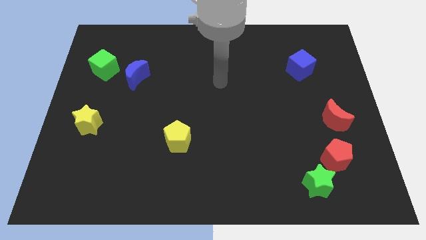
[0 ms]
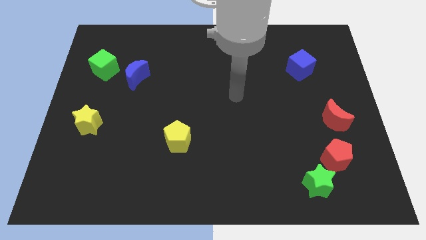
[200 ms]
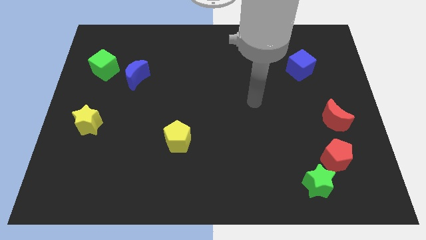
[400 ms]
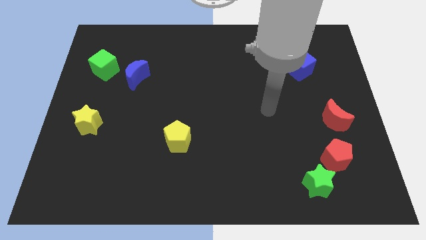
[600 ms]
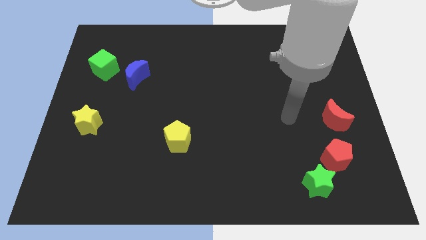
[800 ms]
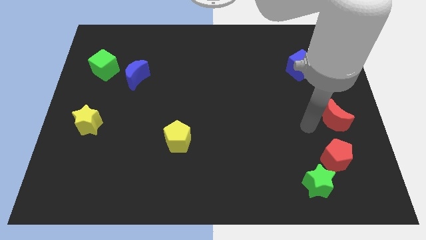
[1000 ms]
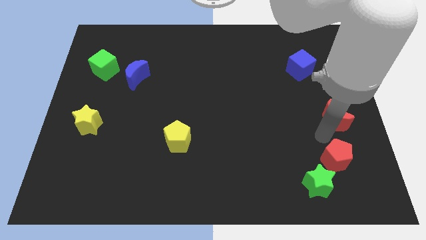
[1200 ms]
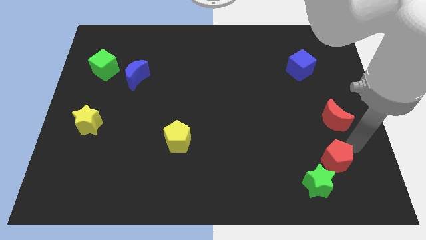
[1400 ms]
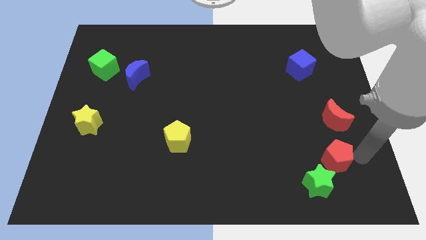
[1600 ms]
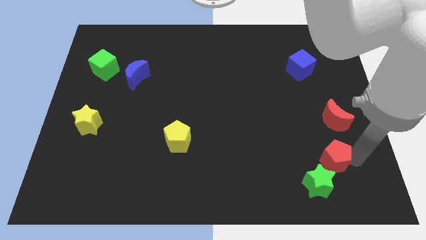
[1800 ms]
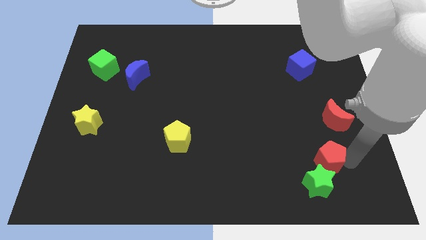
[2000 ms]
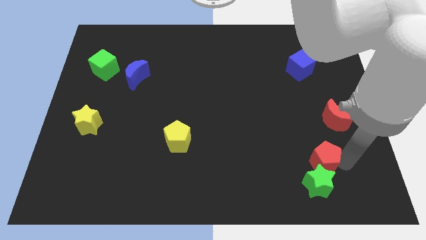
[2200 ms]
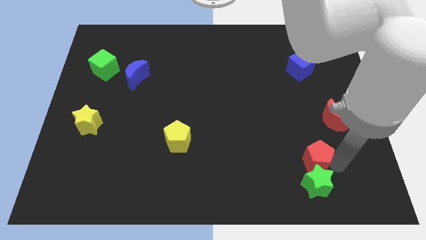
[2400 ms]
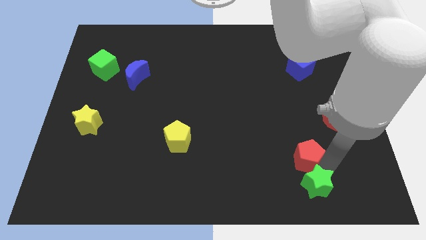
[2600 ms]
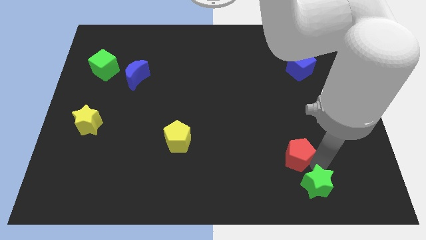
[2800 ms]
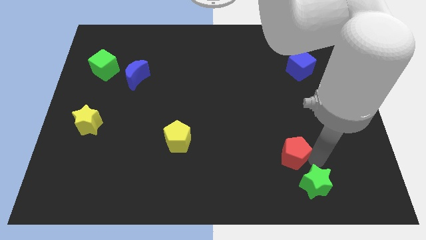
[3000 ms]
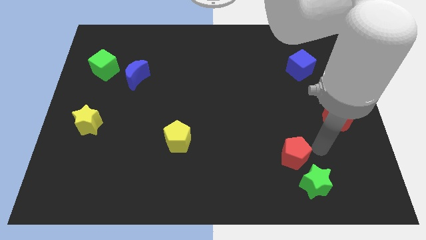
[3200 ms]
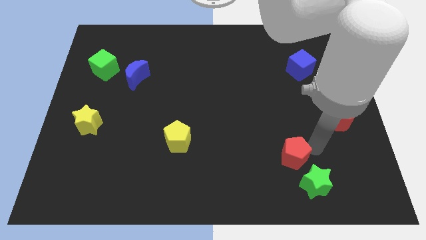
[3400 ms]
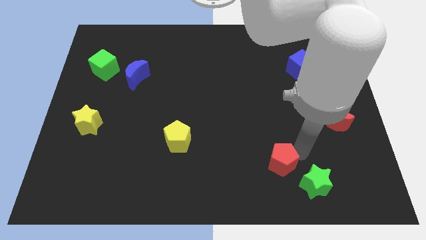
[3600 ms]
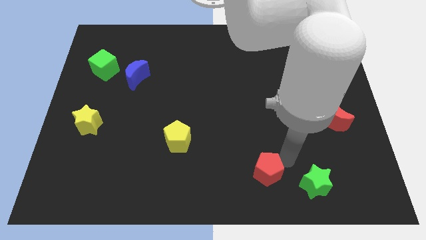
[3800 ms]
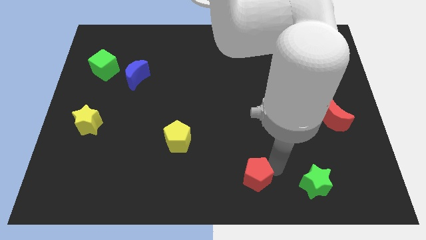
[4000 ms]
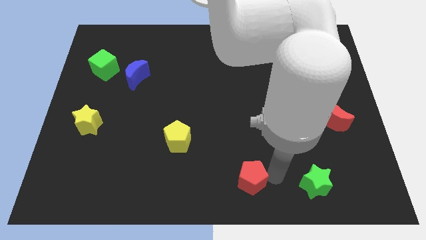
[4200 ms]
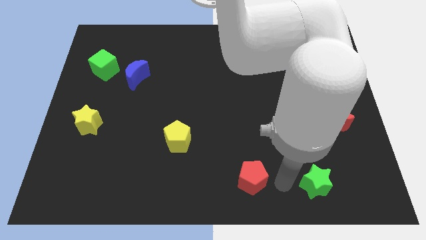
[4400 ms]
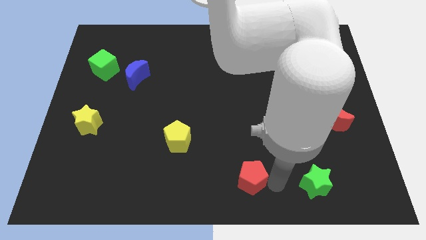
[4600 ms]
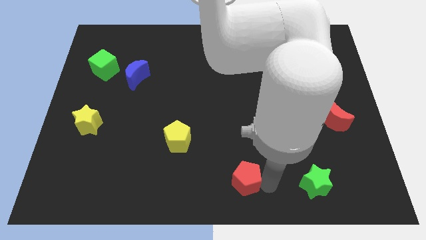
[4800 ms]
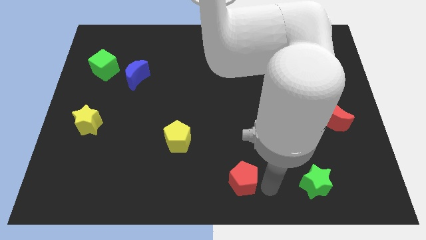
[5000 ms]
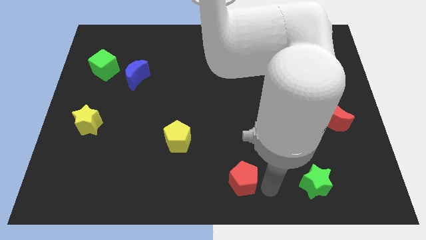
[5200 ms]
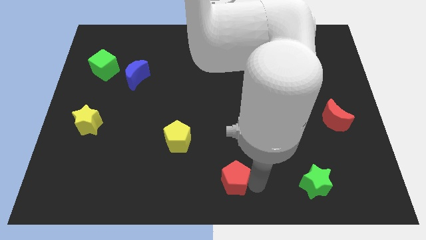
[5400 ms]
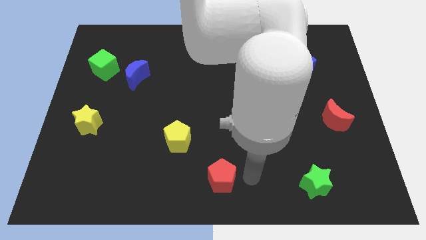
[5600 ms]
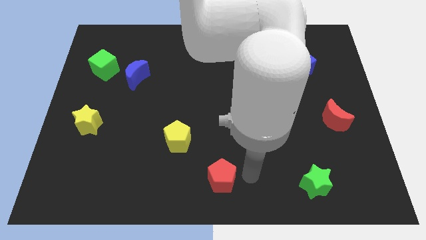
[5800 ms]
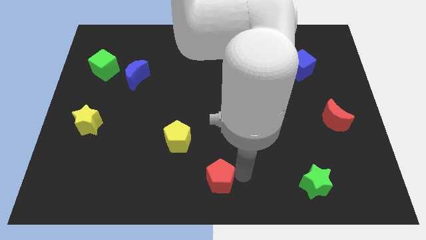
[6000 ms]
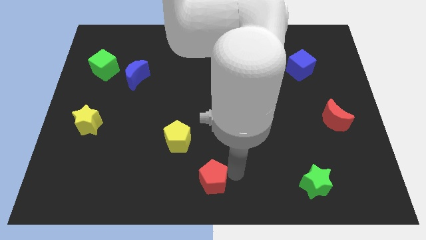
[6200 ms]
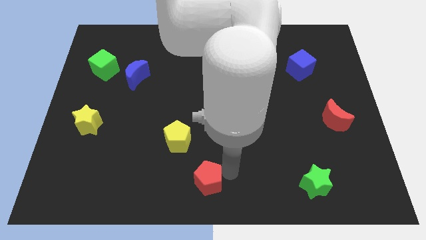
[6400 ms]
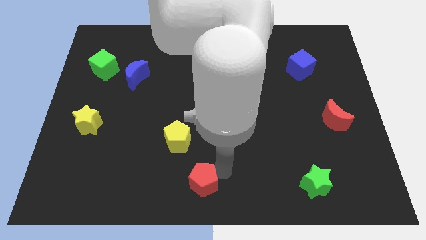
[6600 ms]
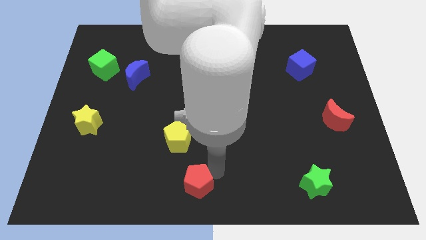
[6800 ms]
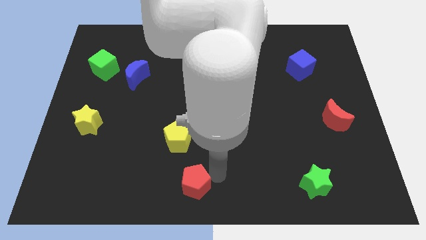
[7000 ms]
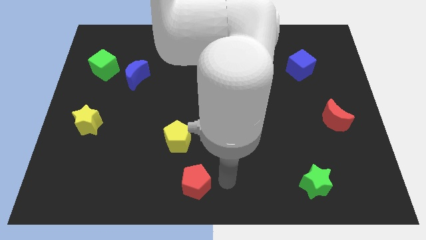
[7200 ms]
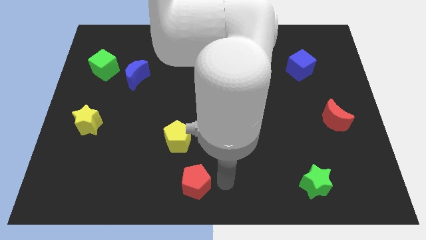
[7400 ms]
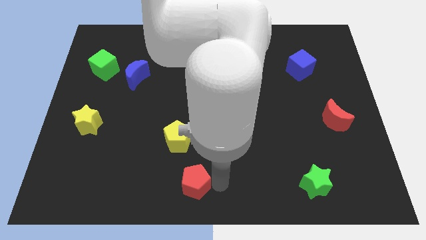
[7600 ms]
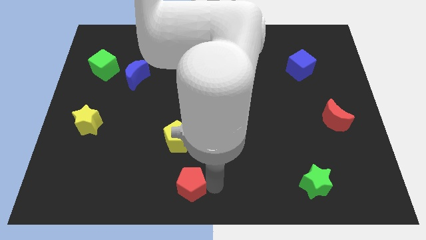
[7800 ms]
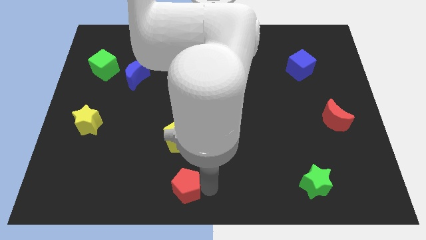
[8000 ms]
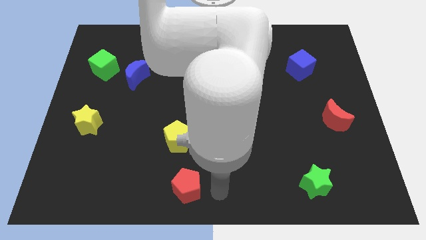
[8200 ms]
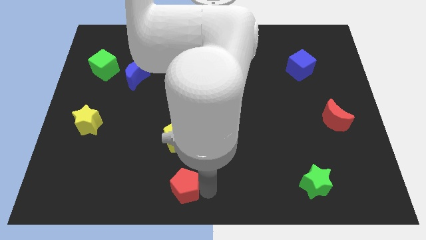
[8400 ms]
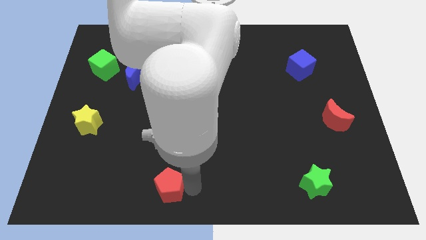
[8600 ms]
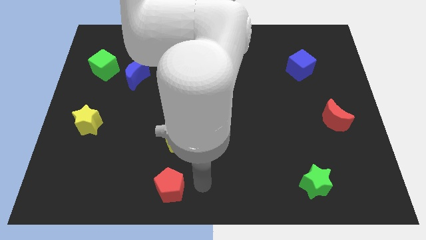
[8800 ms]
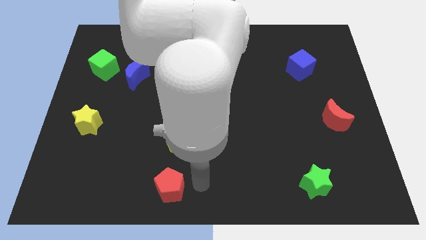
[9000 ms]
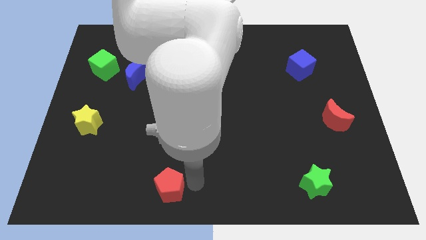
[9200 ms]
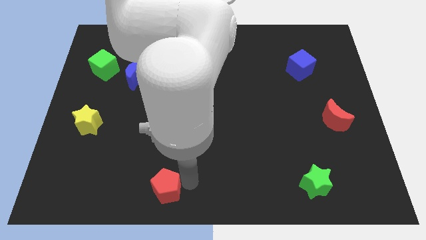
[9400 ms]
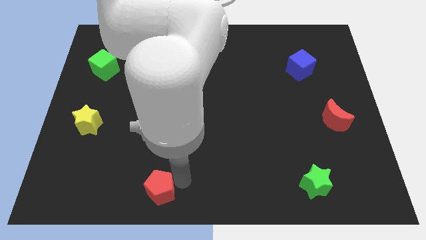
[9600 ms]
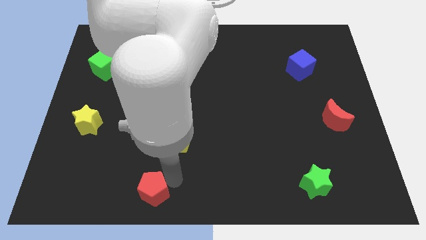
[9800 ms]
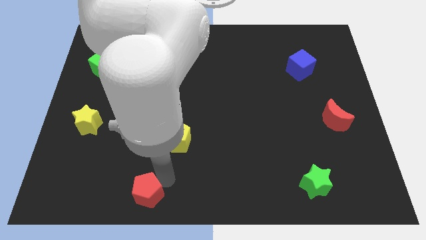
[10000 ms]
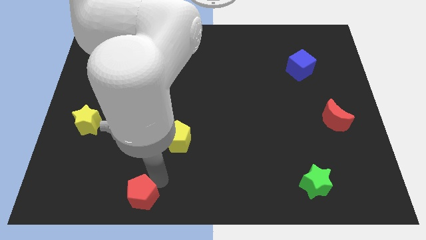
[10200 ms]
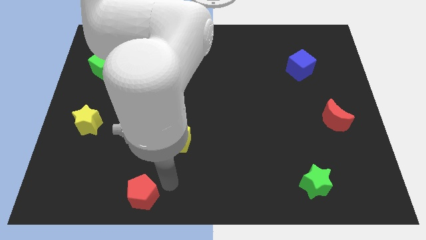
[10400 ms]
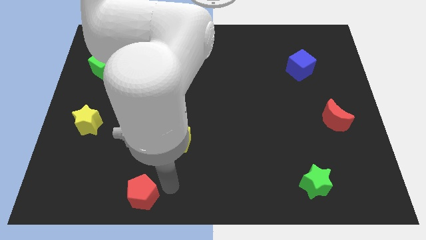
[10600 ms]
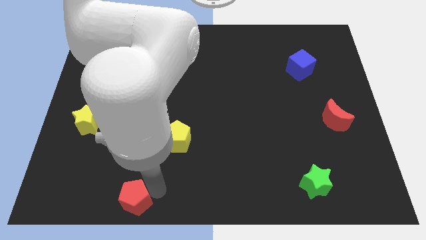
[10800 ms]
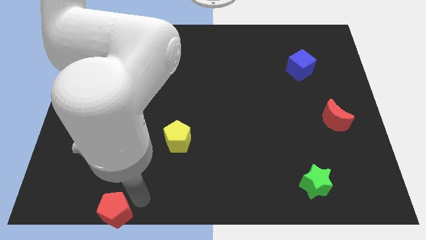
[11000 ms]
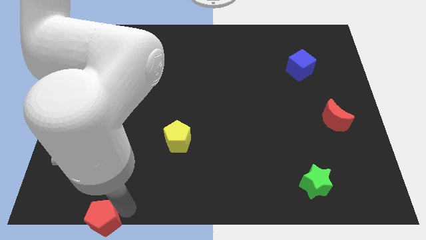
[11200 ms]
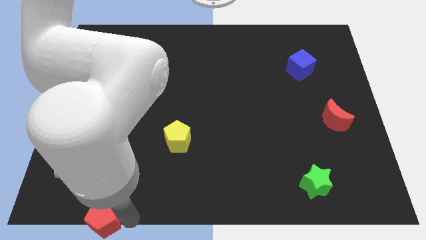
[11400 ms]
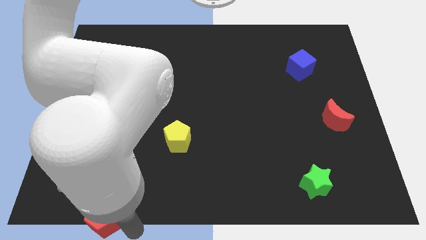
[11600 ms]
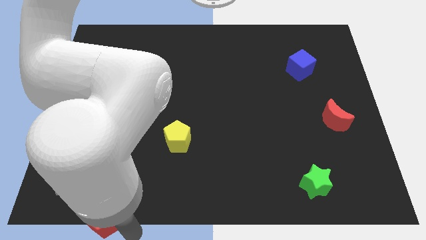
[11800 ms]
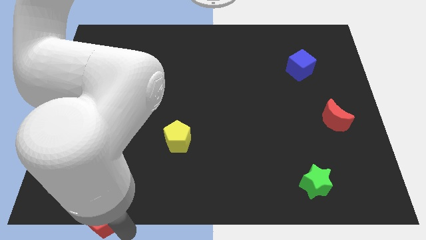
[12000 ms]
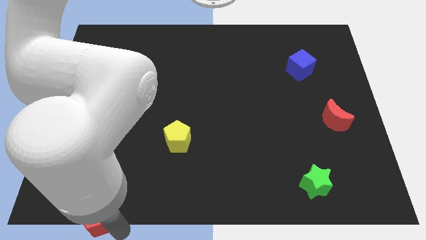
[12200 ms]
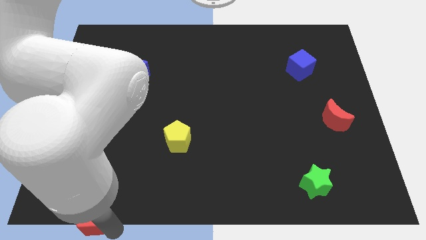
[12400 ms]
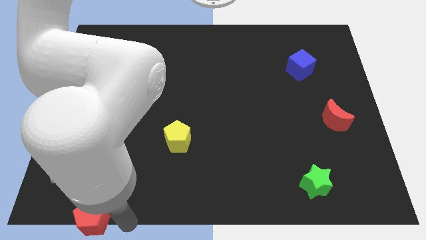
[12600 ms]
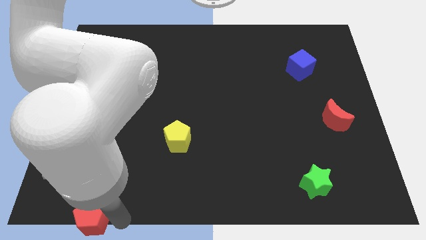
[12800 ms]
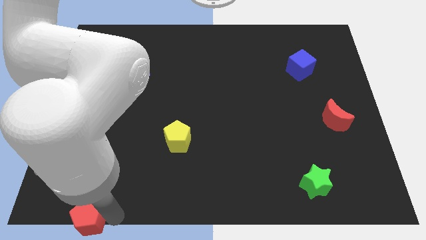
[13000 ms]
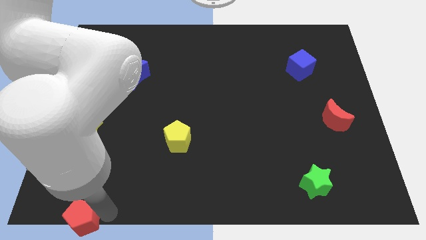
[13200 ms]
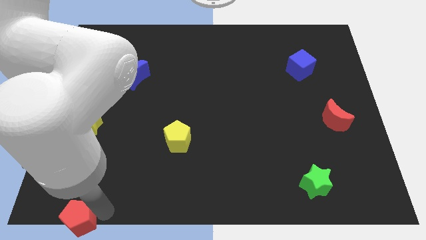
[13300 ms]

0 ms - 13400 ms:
slide the red pentagon to the bottom left corner
